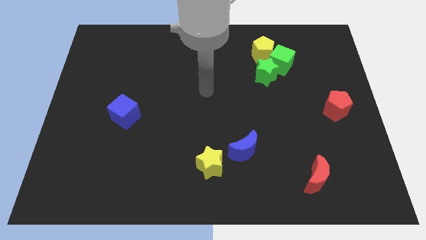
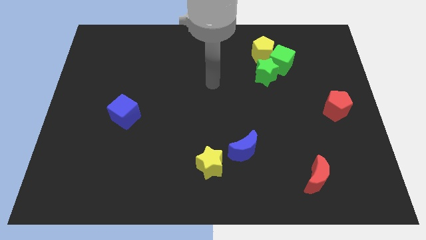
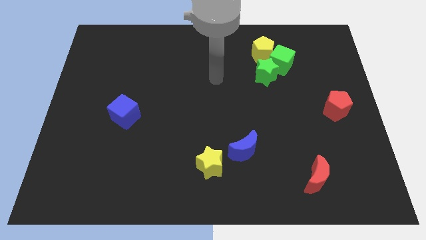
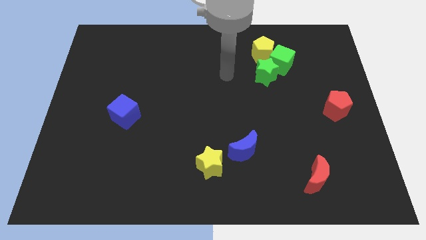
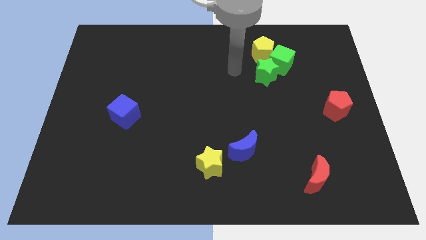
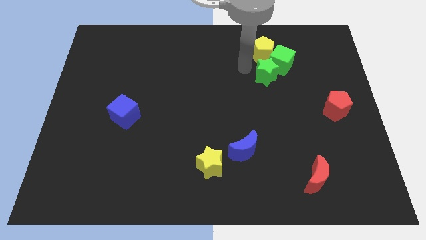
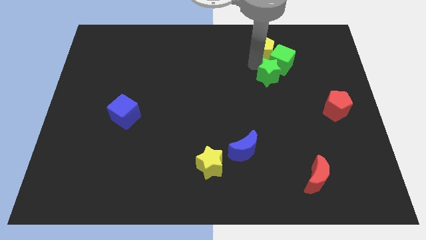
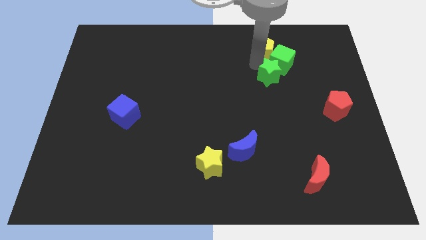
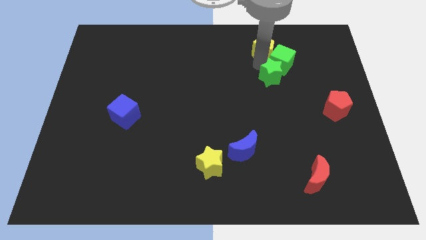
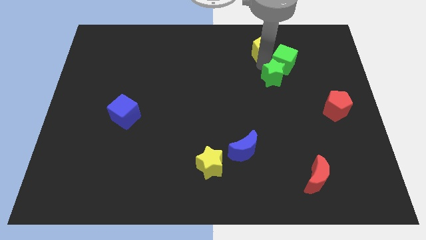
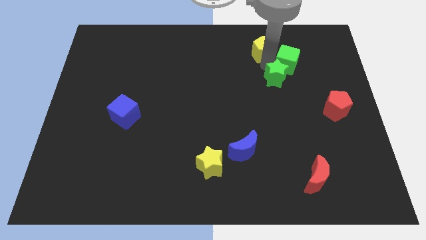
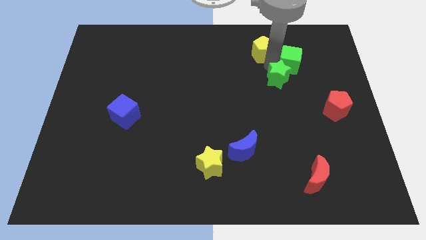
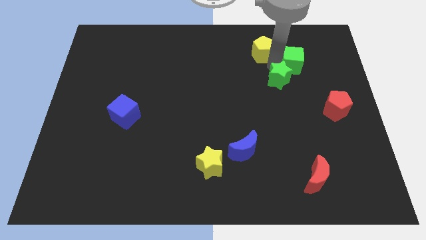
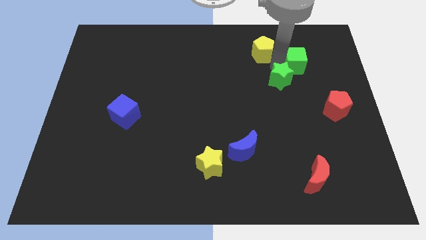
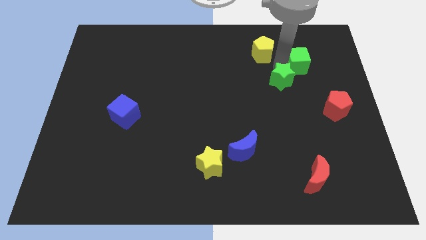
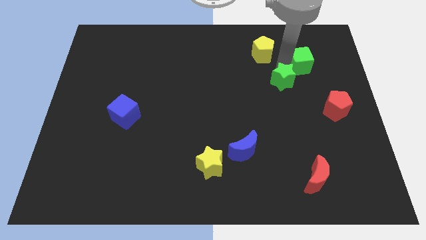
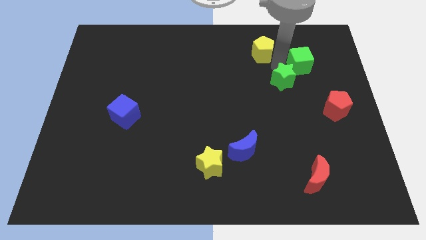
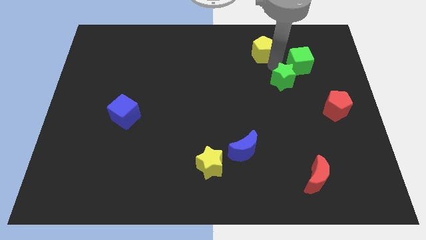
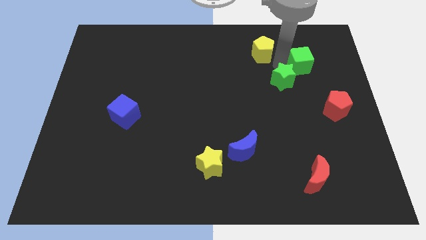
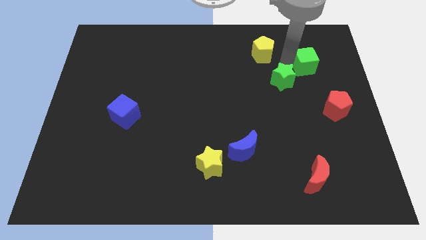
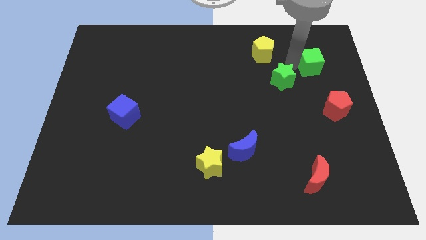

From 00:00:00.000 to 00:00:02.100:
move the green cube away from the yellow pentagon and green star

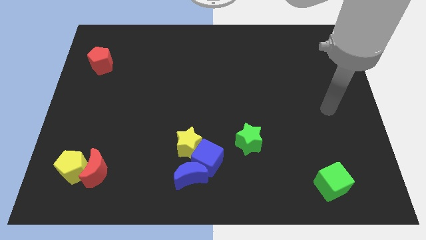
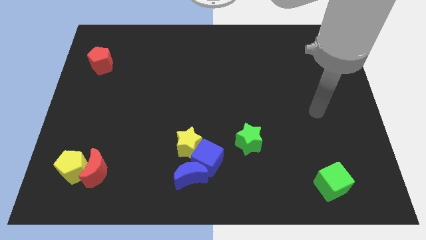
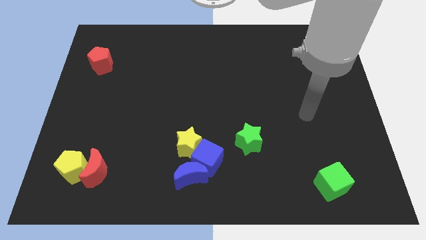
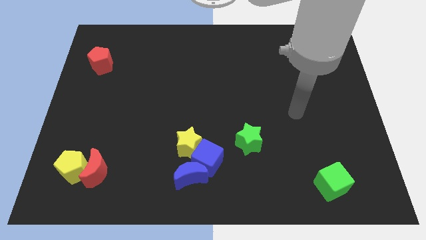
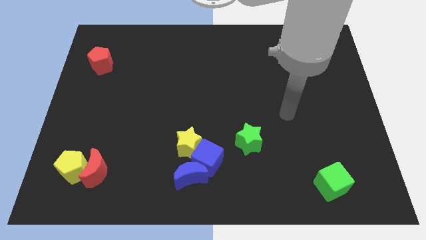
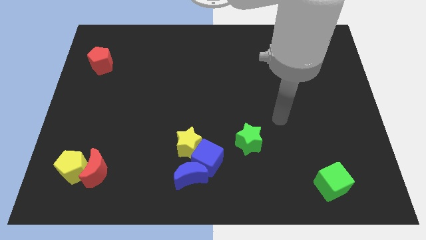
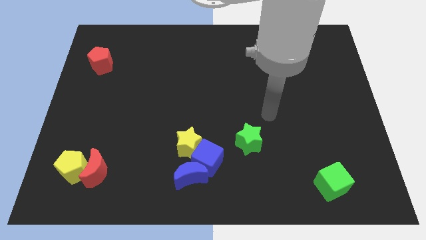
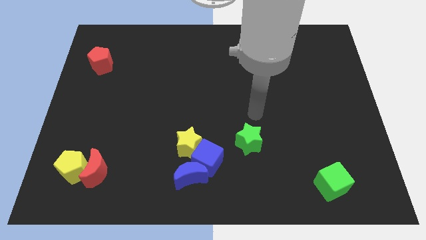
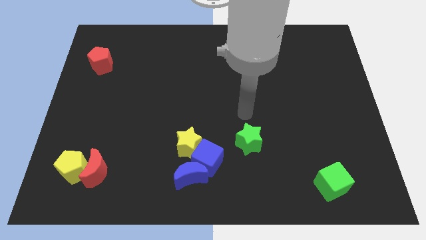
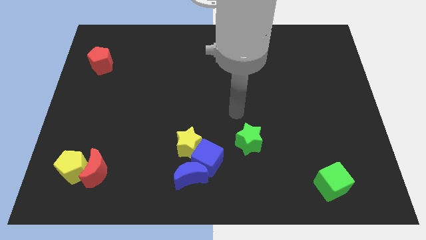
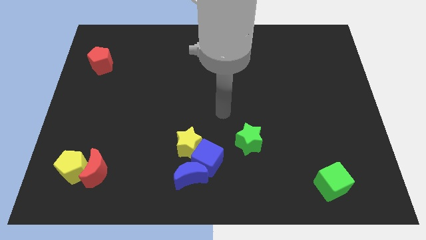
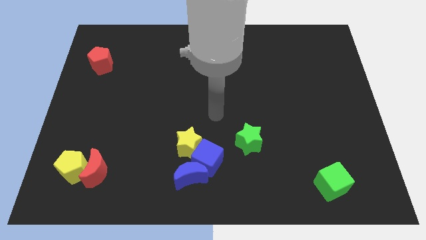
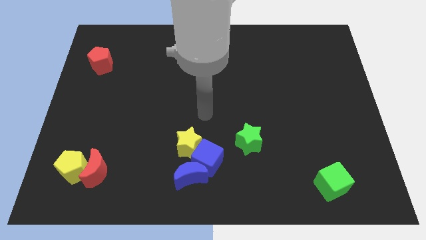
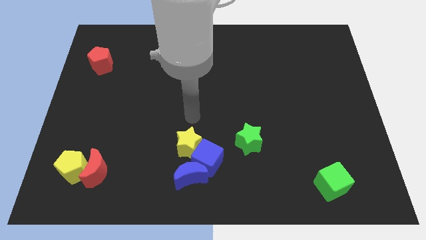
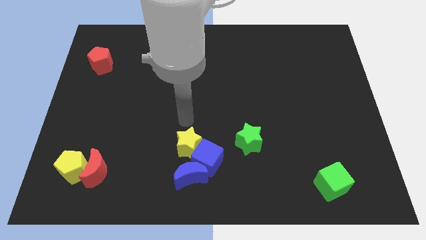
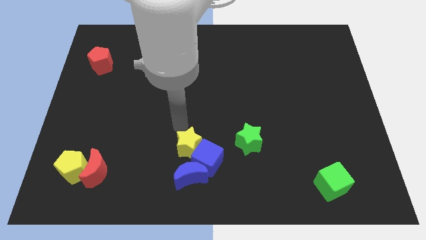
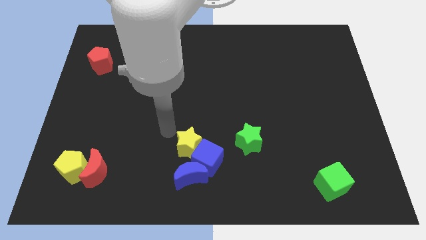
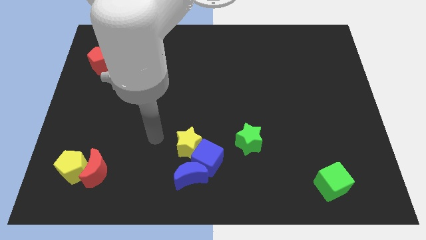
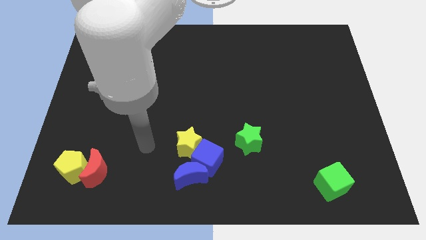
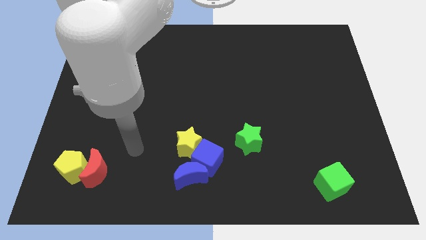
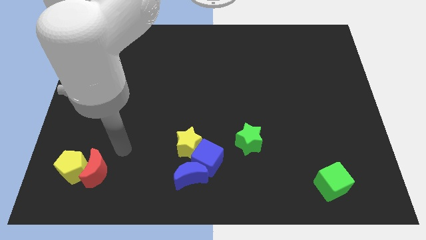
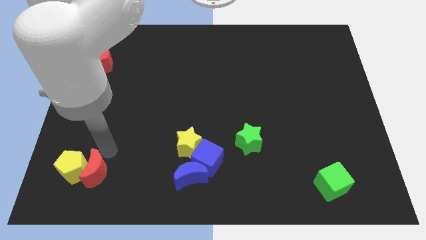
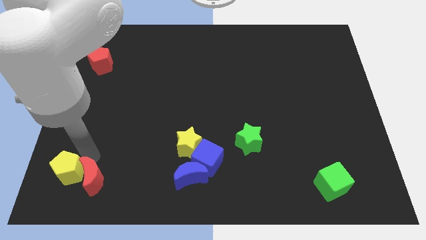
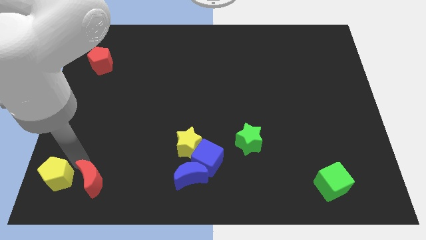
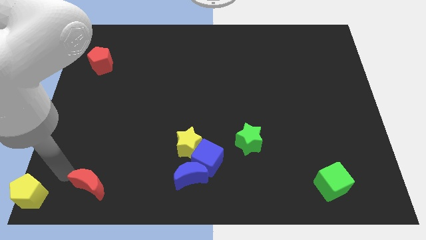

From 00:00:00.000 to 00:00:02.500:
move the red moon away from the yellow pentagon

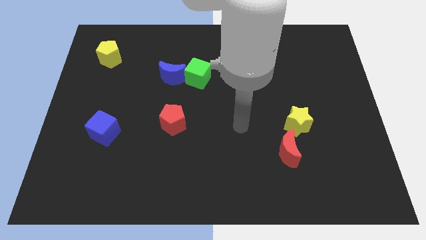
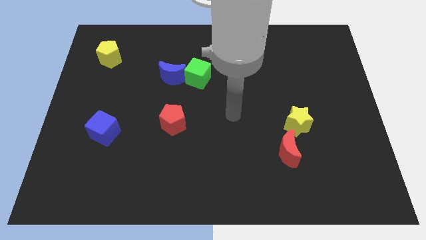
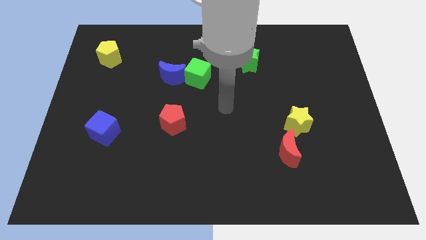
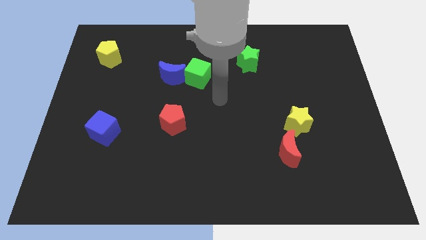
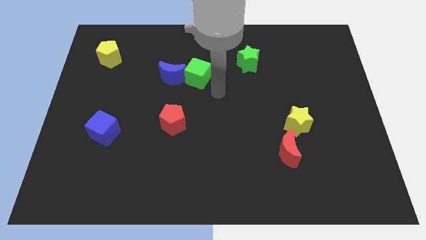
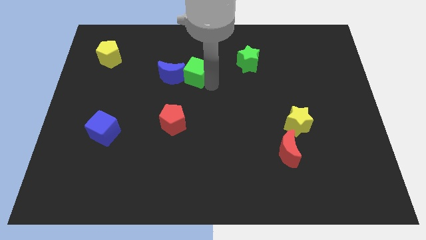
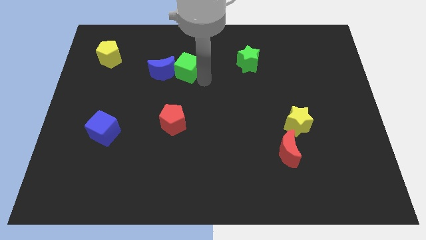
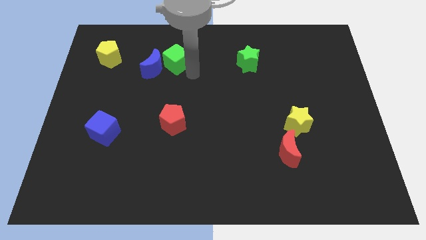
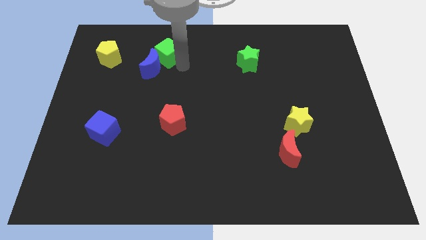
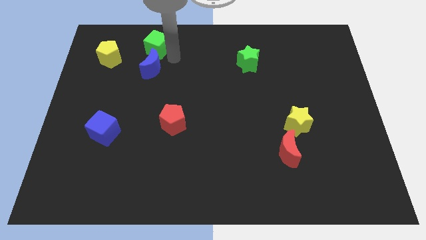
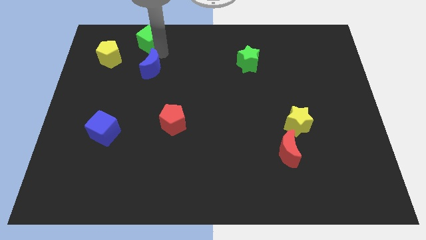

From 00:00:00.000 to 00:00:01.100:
separate the blue moon from the green cube

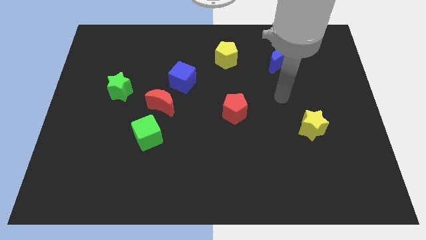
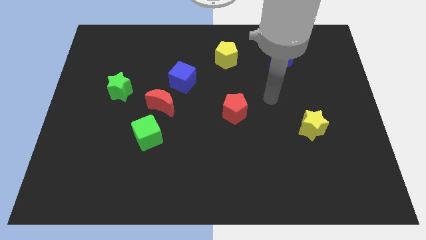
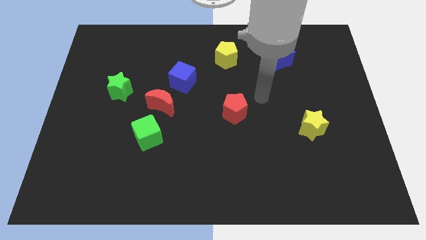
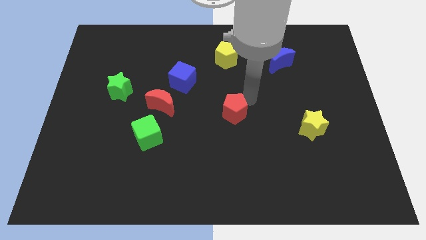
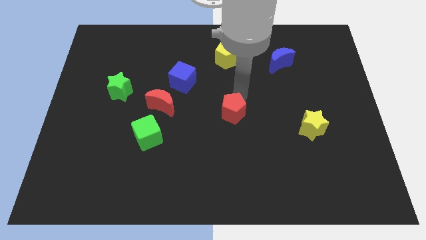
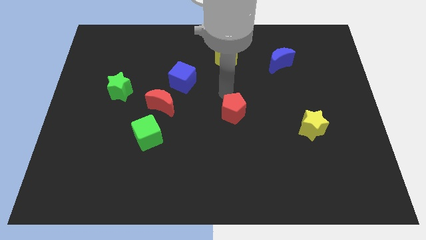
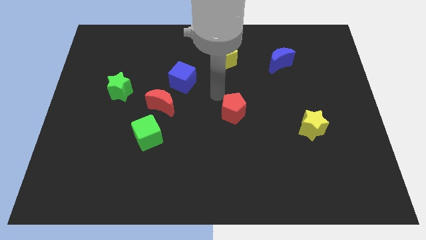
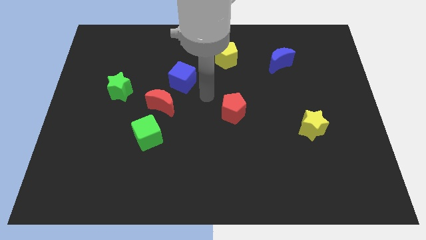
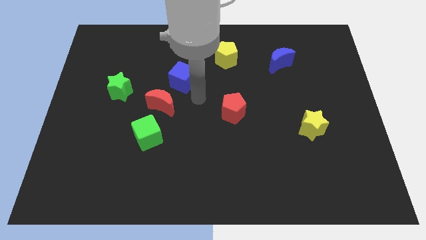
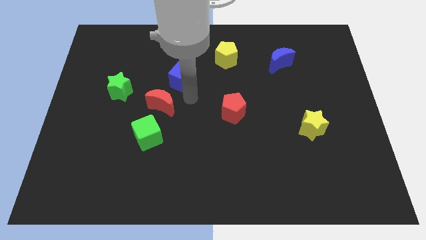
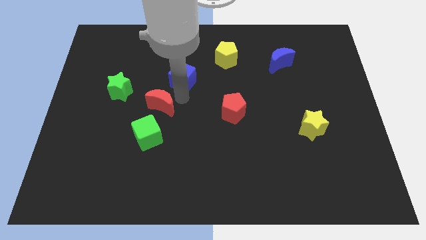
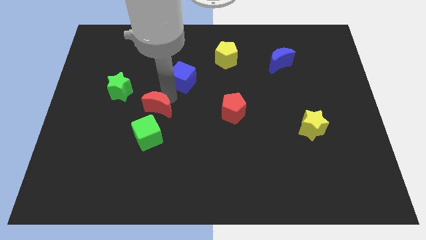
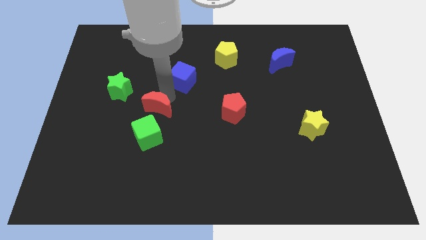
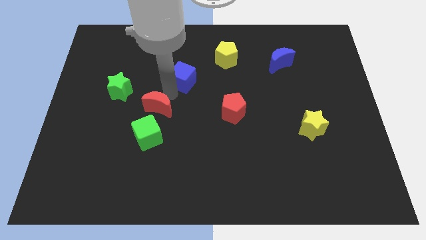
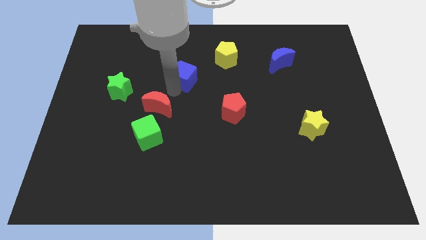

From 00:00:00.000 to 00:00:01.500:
separate the blue cube from the red moon

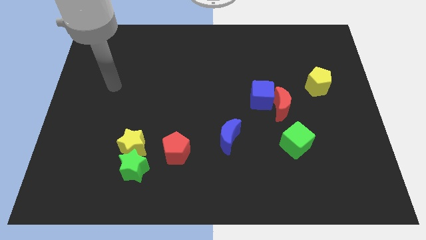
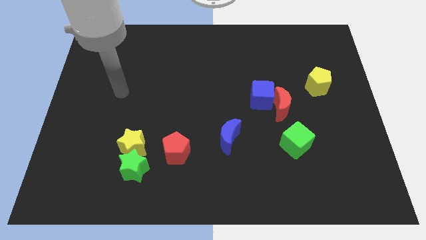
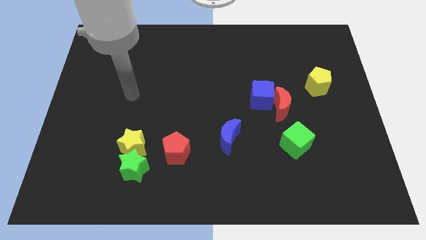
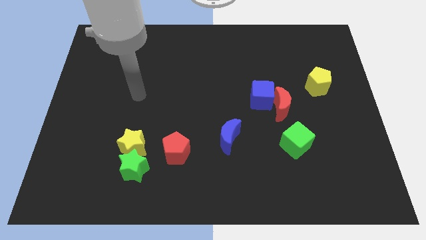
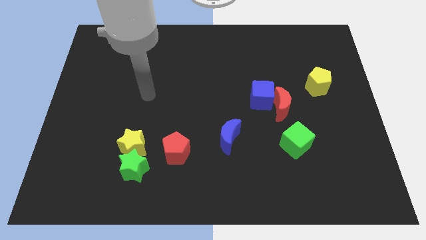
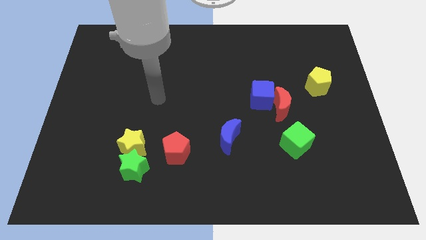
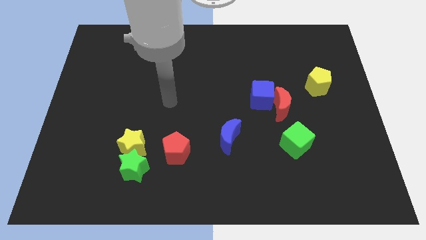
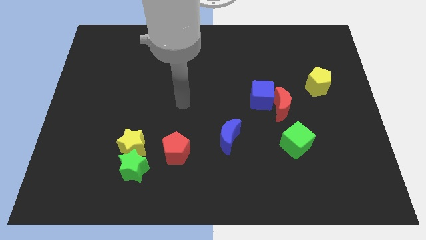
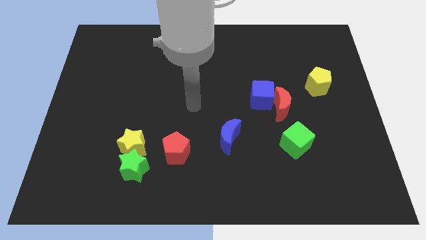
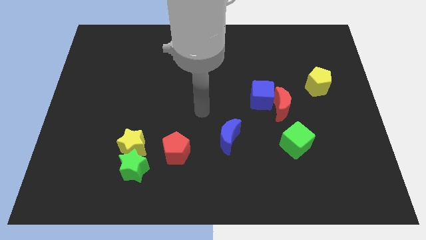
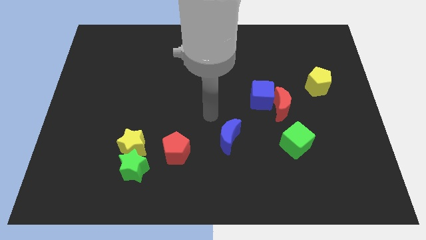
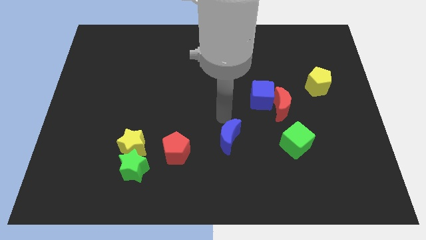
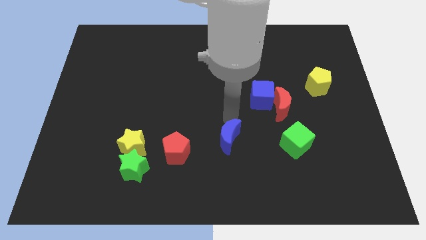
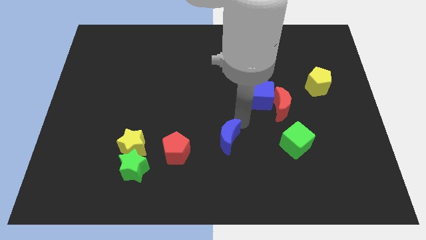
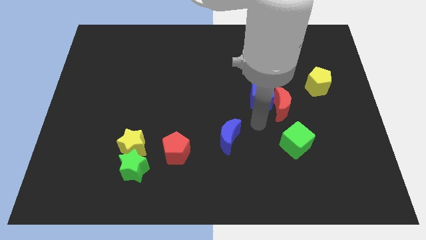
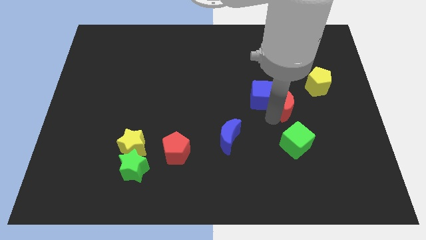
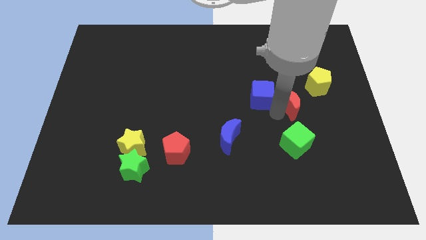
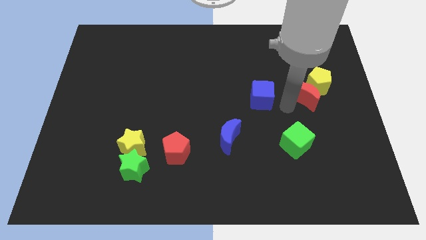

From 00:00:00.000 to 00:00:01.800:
pull the blue cube apart from the red moon

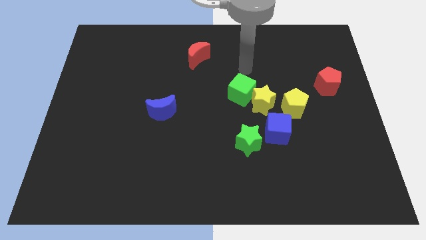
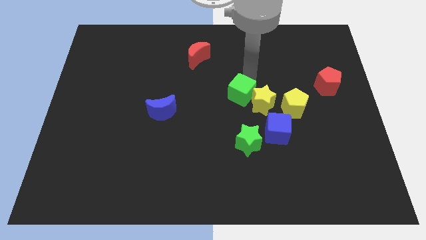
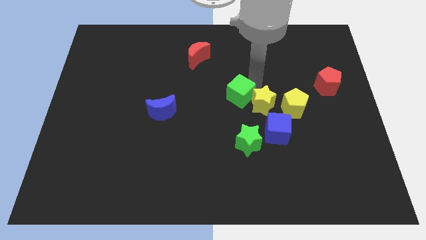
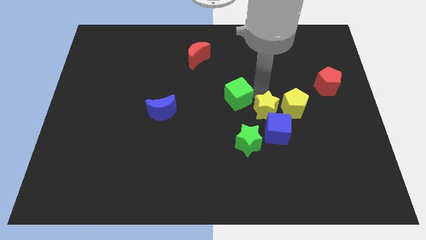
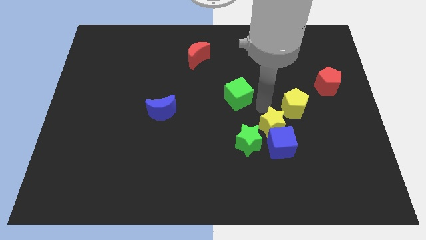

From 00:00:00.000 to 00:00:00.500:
move the green cube away from the yellow star
